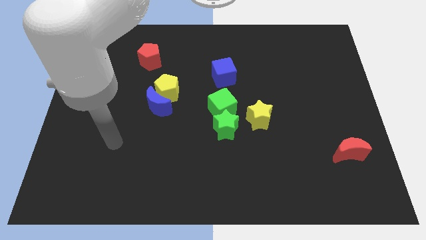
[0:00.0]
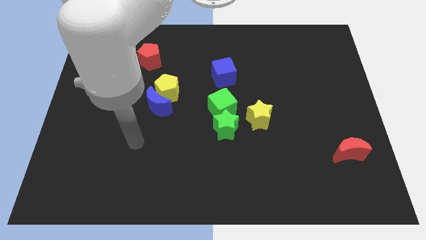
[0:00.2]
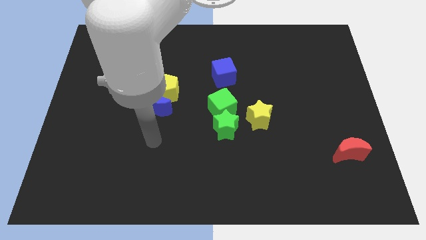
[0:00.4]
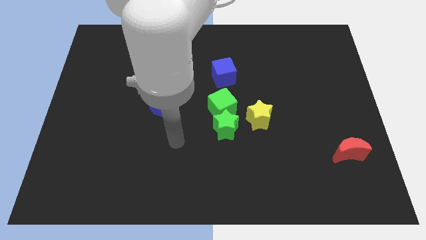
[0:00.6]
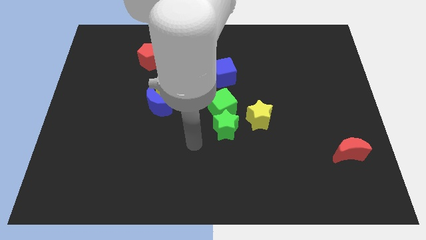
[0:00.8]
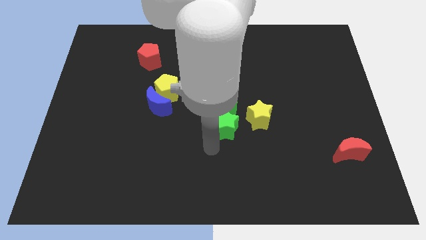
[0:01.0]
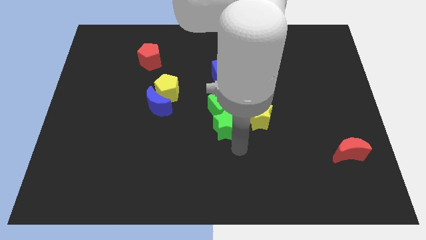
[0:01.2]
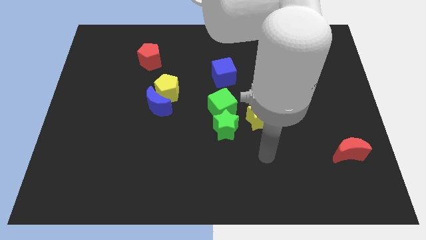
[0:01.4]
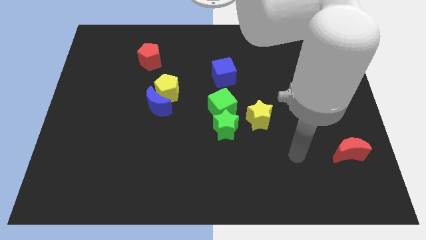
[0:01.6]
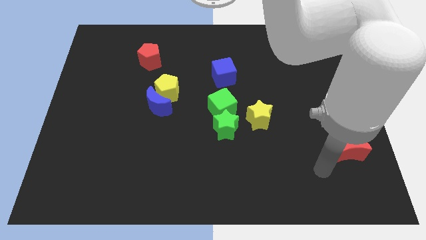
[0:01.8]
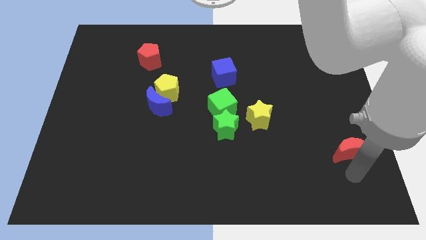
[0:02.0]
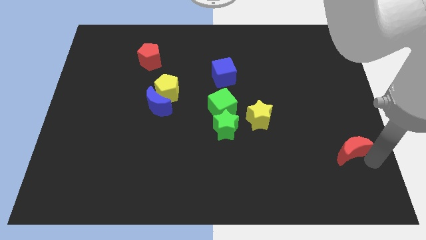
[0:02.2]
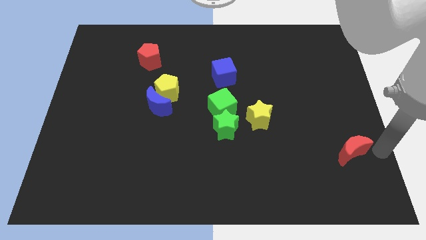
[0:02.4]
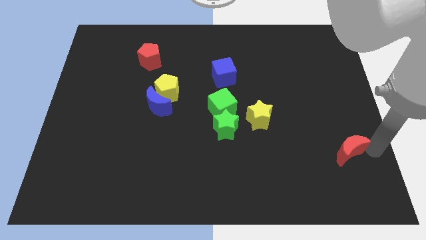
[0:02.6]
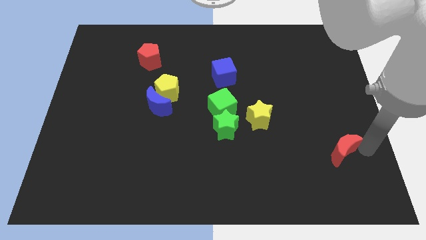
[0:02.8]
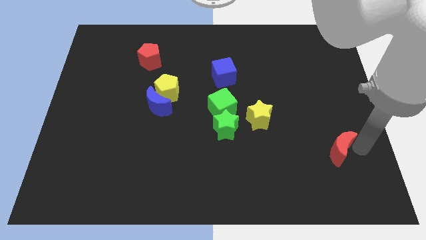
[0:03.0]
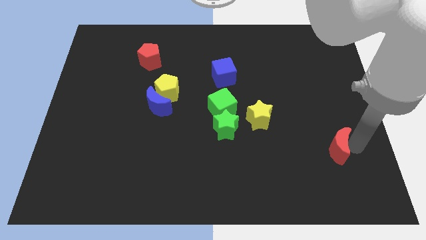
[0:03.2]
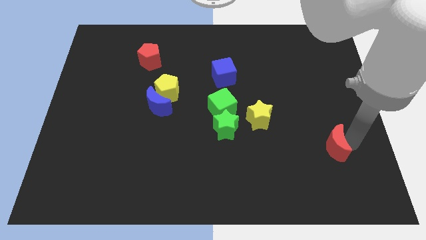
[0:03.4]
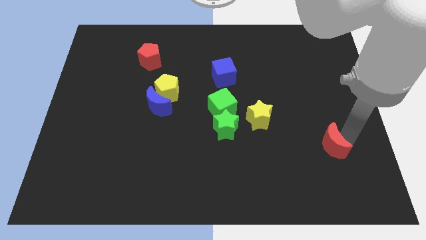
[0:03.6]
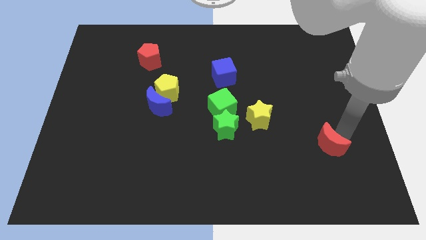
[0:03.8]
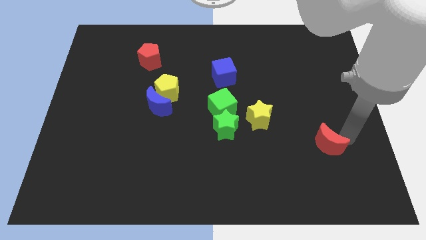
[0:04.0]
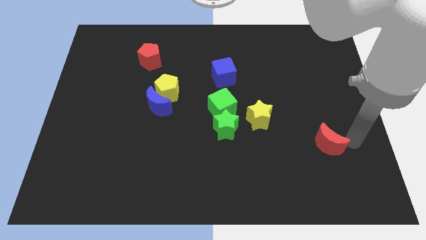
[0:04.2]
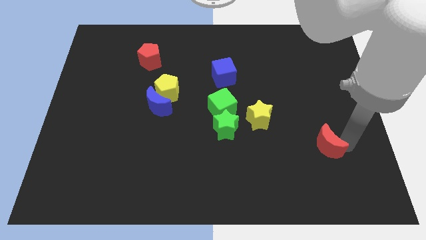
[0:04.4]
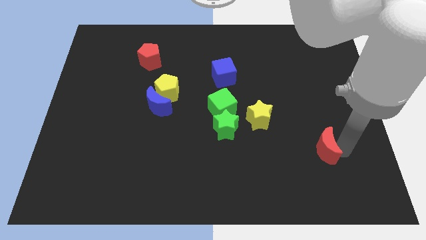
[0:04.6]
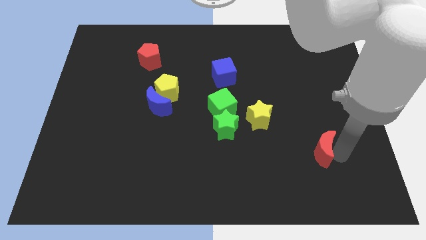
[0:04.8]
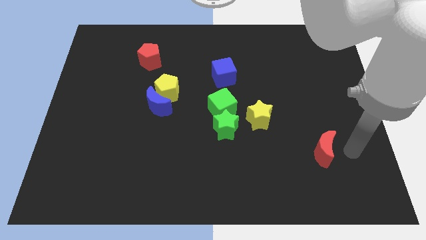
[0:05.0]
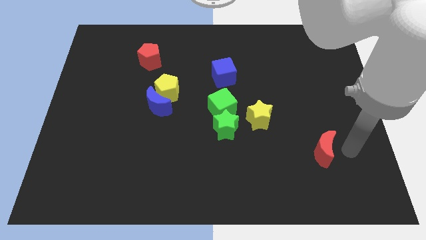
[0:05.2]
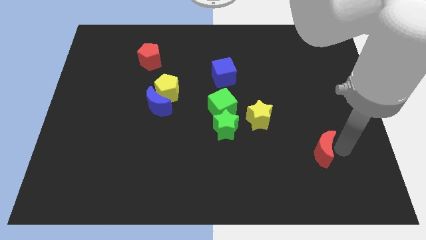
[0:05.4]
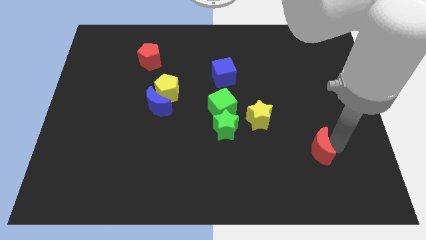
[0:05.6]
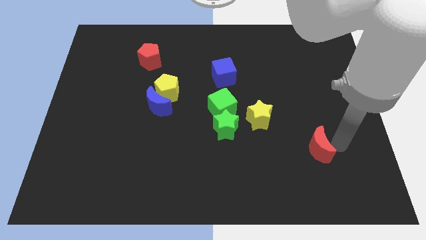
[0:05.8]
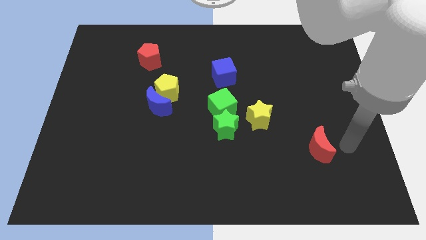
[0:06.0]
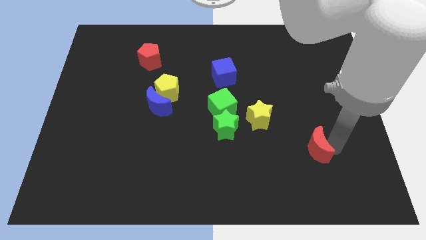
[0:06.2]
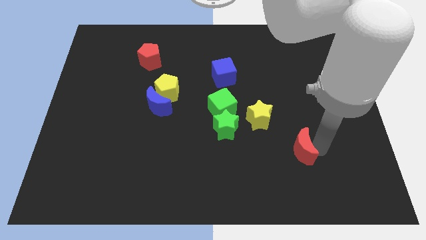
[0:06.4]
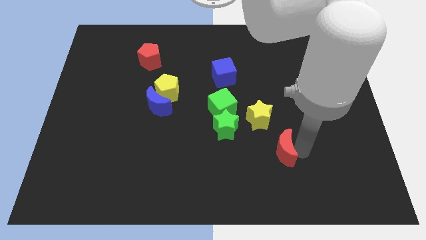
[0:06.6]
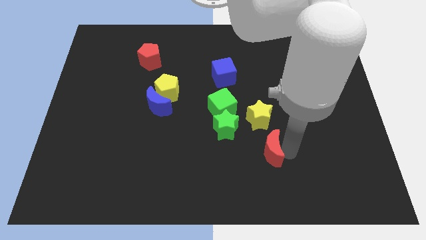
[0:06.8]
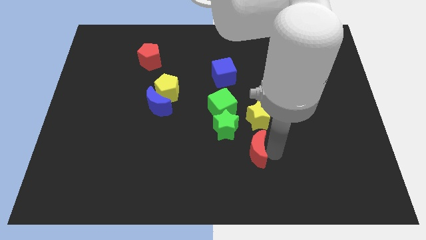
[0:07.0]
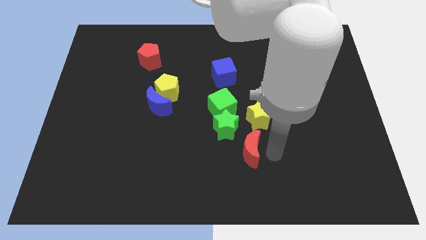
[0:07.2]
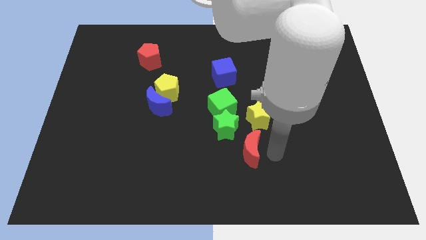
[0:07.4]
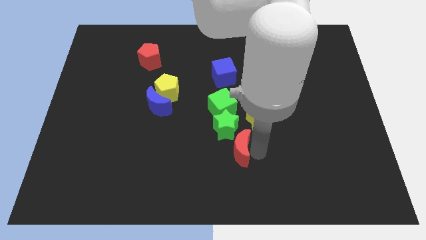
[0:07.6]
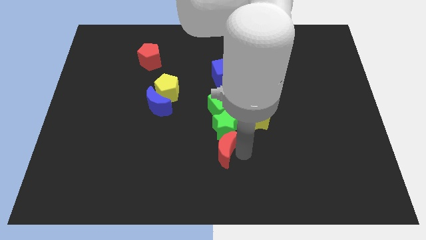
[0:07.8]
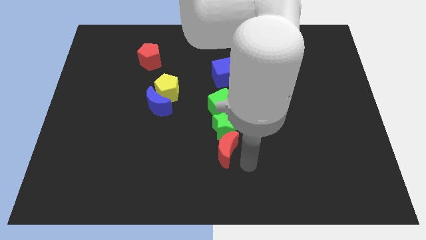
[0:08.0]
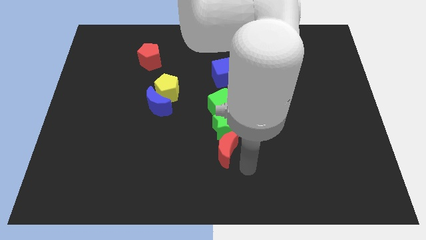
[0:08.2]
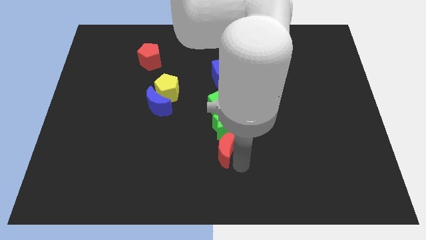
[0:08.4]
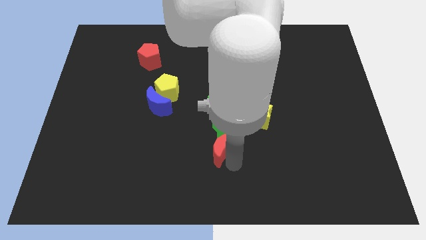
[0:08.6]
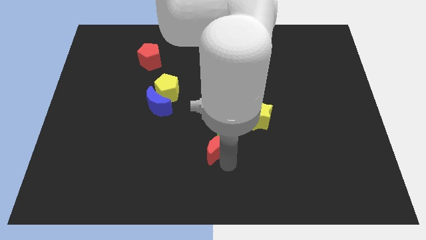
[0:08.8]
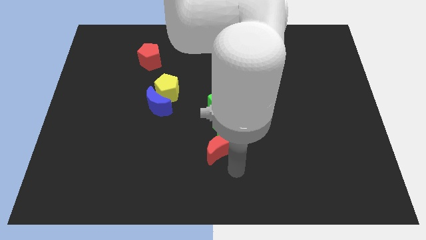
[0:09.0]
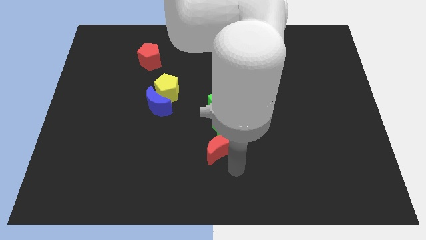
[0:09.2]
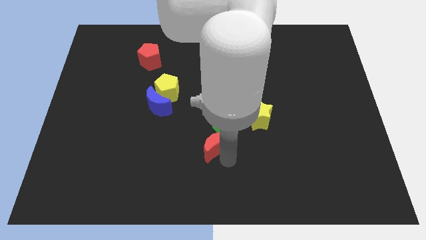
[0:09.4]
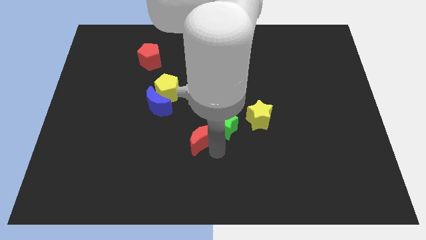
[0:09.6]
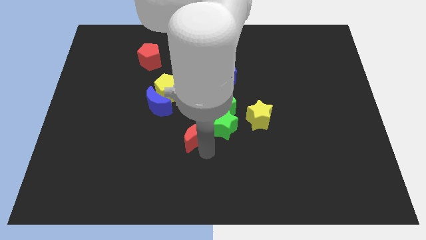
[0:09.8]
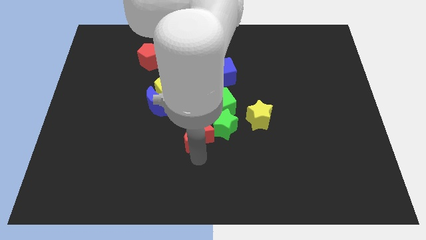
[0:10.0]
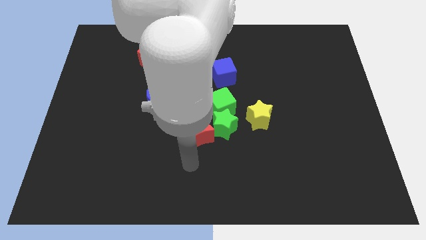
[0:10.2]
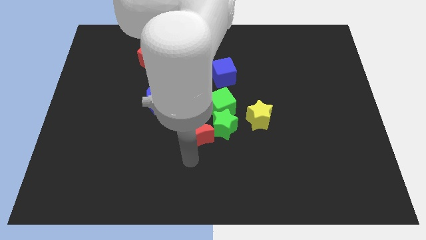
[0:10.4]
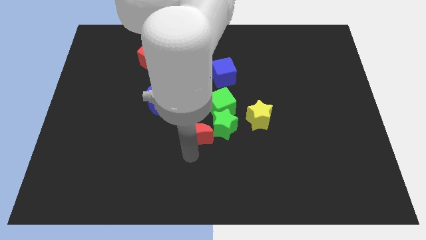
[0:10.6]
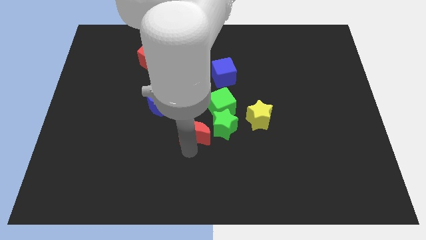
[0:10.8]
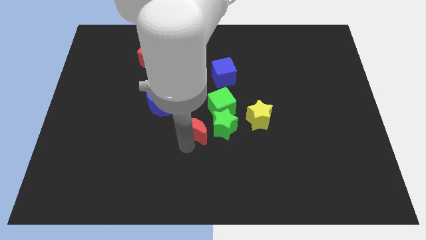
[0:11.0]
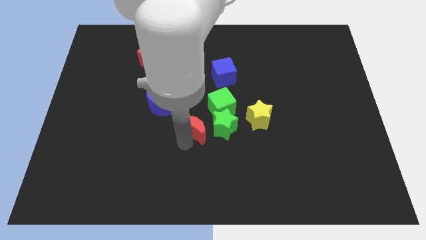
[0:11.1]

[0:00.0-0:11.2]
push the red moon to the left of the yellow star

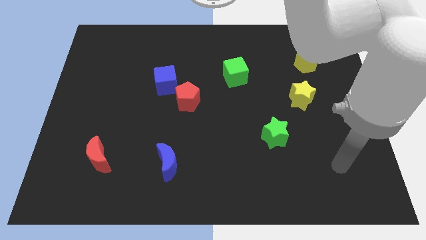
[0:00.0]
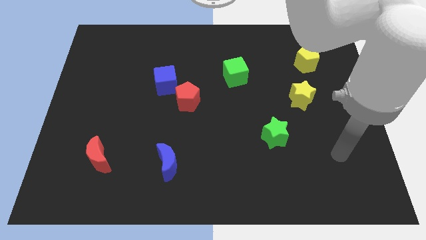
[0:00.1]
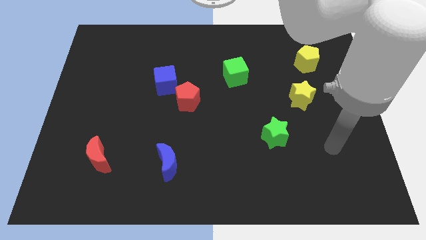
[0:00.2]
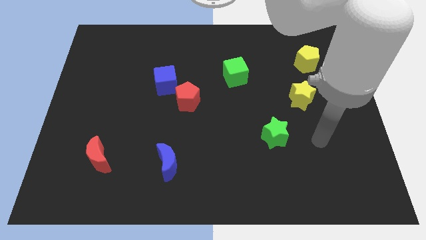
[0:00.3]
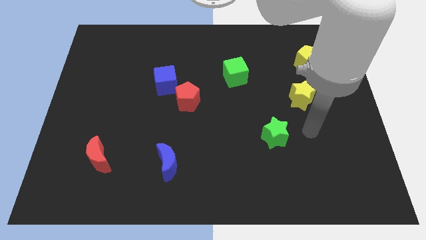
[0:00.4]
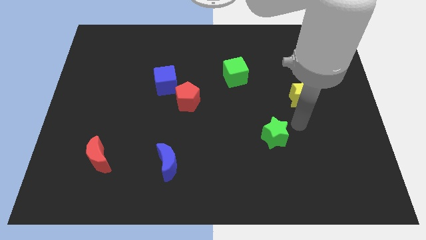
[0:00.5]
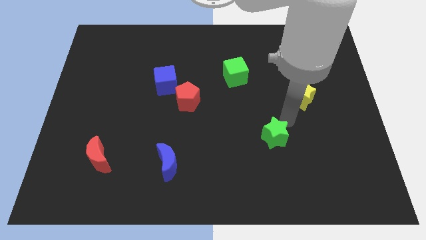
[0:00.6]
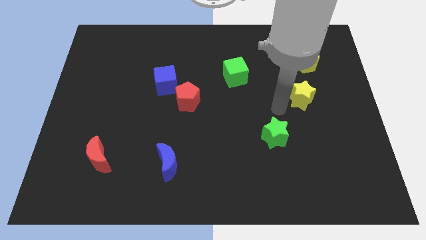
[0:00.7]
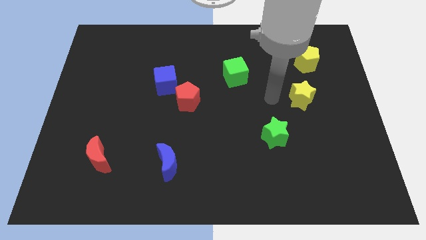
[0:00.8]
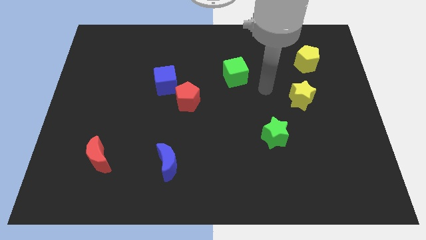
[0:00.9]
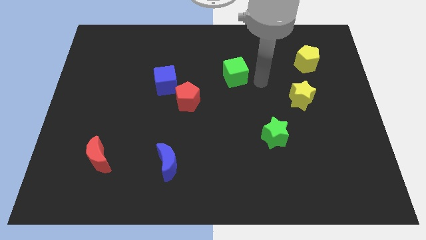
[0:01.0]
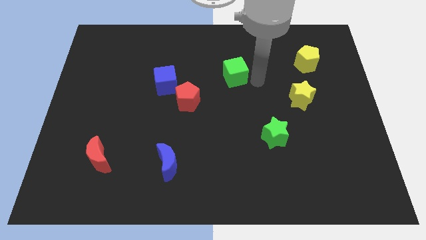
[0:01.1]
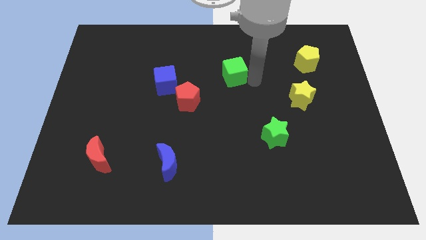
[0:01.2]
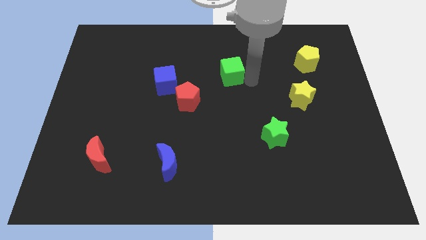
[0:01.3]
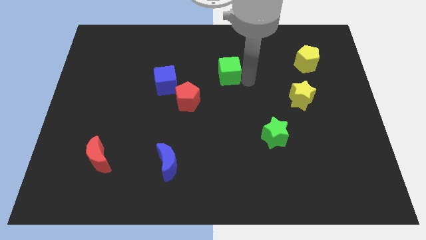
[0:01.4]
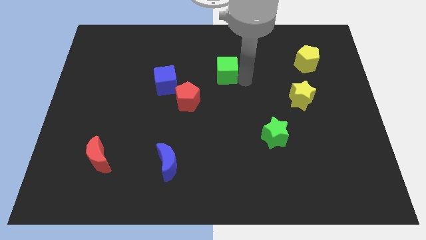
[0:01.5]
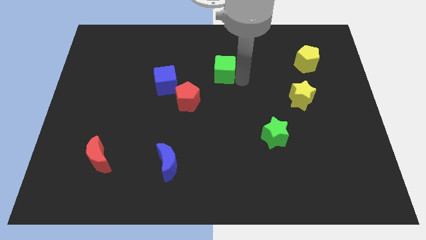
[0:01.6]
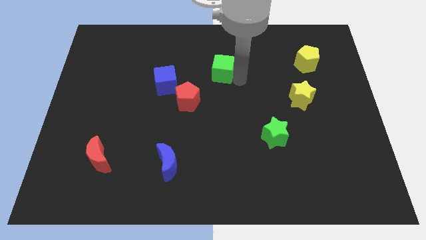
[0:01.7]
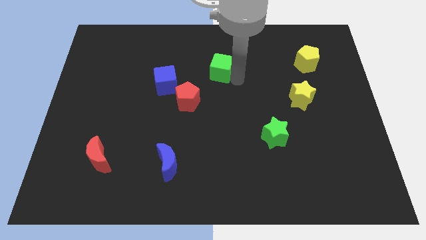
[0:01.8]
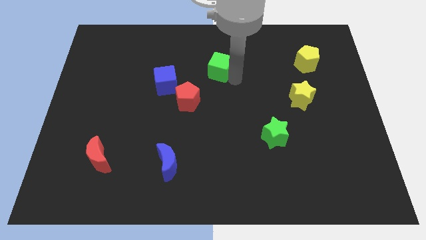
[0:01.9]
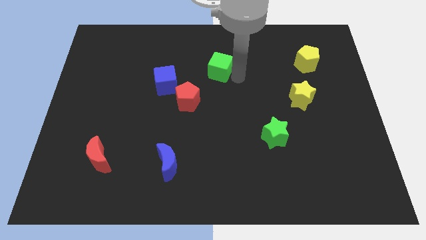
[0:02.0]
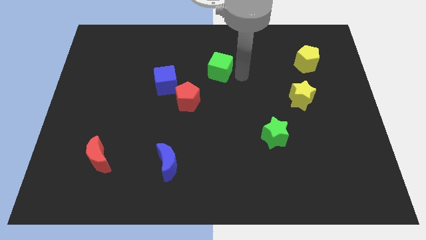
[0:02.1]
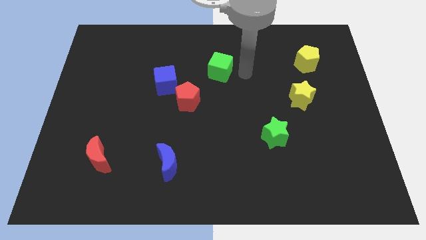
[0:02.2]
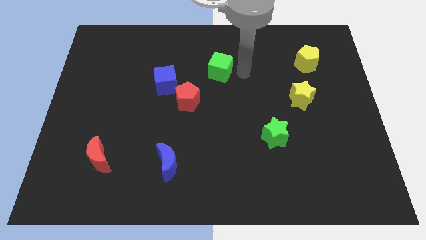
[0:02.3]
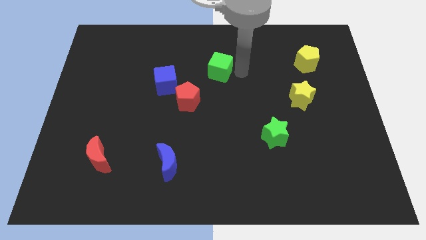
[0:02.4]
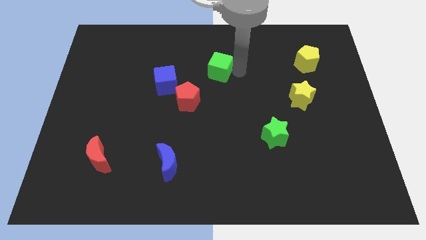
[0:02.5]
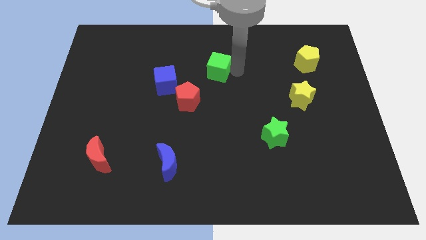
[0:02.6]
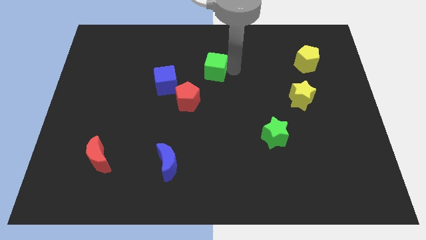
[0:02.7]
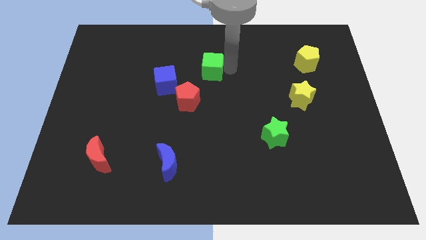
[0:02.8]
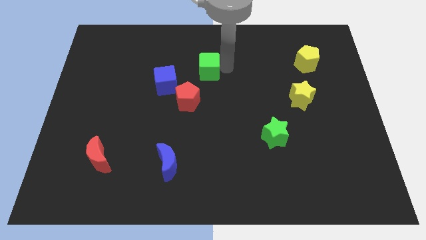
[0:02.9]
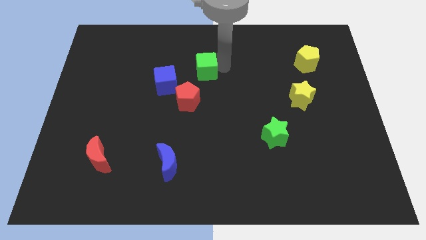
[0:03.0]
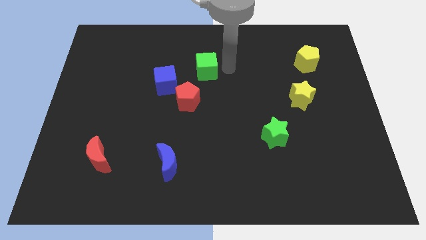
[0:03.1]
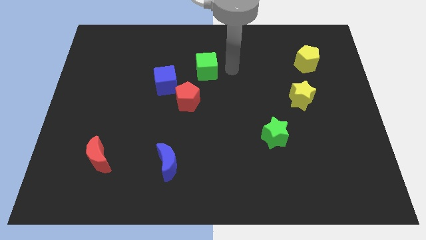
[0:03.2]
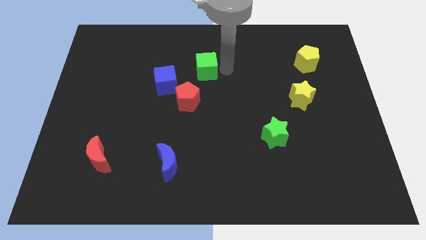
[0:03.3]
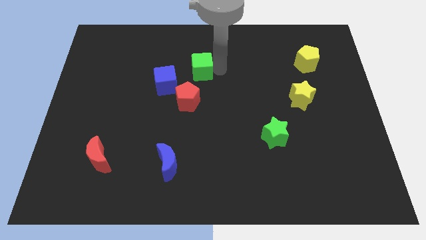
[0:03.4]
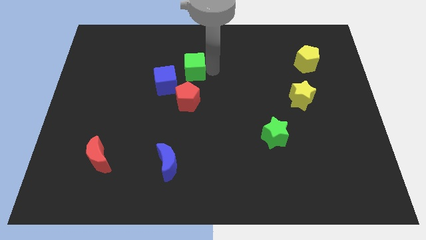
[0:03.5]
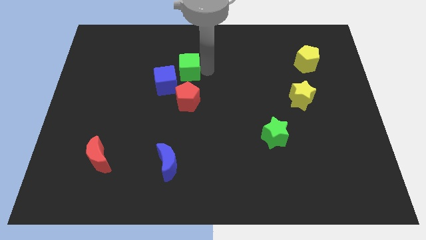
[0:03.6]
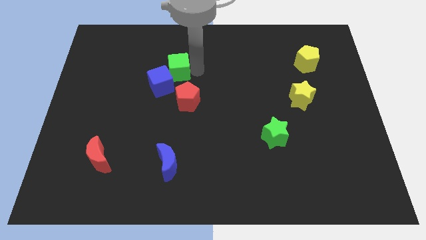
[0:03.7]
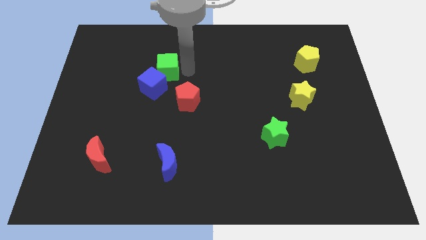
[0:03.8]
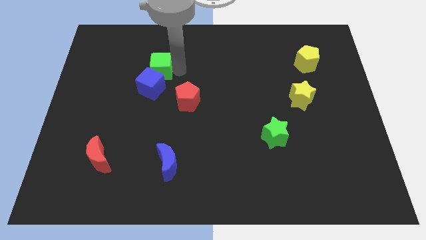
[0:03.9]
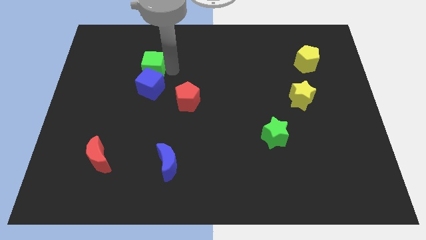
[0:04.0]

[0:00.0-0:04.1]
slide the green cube to the top left side of the blue cube
